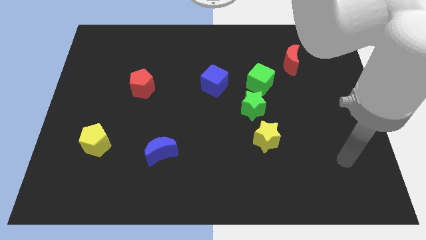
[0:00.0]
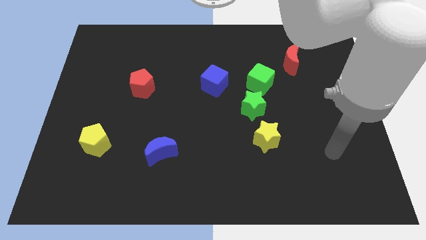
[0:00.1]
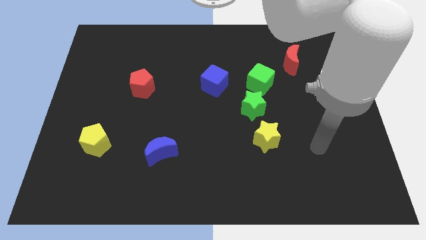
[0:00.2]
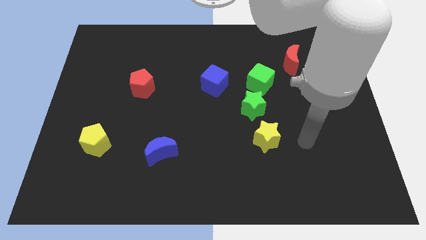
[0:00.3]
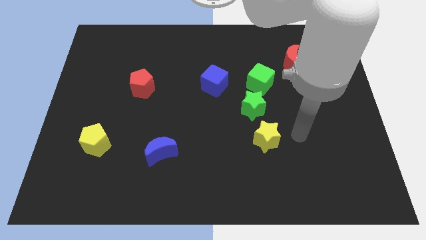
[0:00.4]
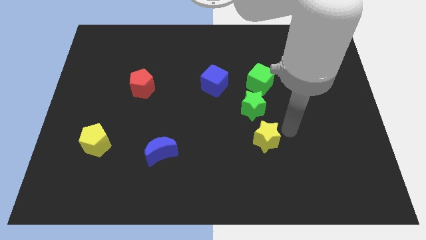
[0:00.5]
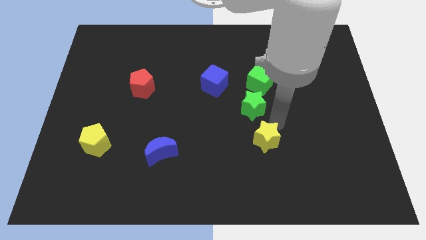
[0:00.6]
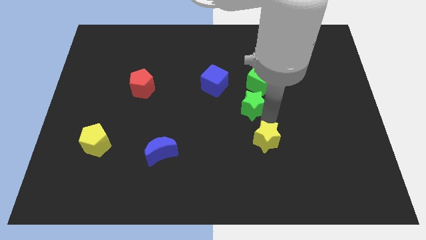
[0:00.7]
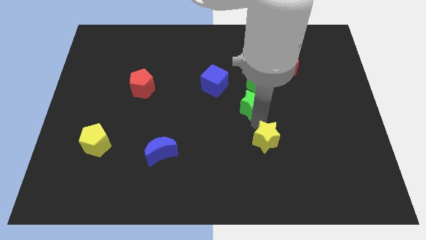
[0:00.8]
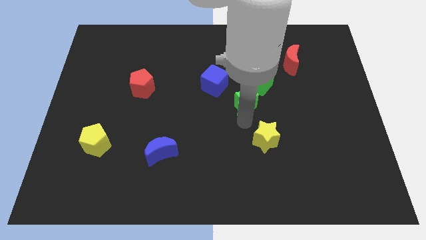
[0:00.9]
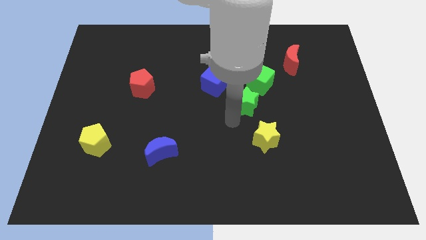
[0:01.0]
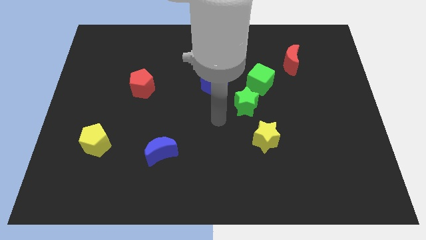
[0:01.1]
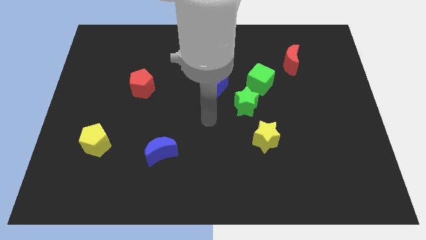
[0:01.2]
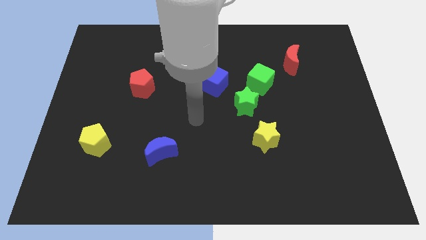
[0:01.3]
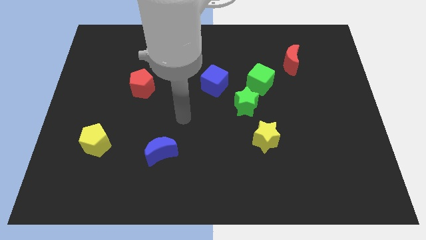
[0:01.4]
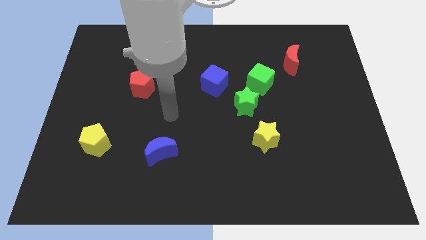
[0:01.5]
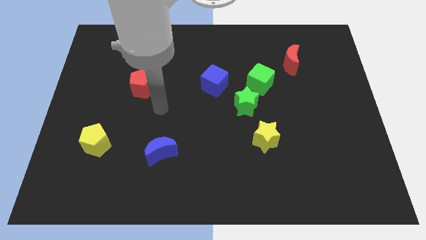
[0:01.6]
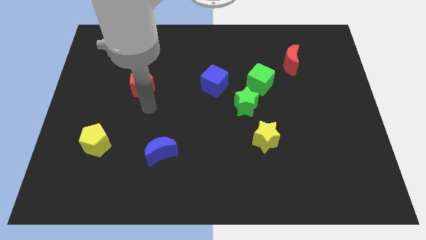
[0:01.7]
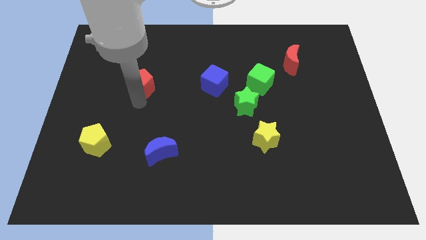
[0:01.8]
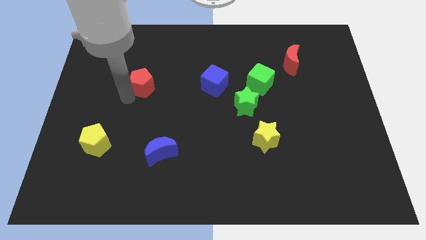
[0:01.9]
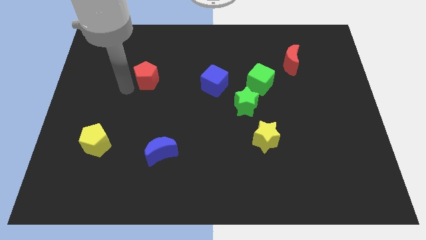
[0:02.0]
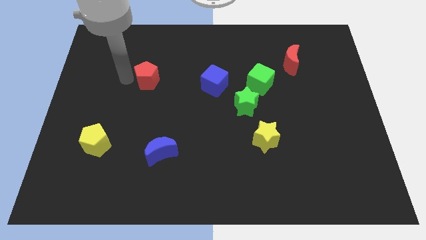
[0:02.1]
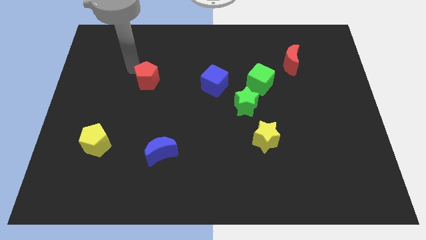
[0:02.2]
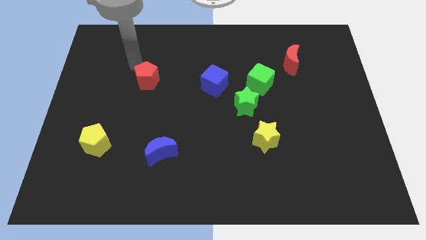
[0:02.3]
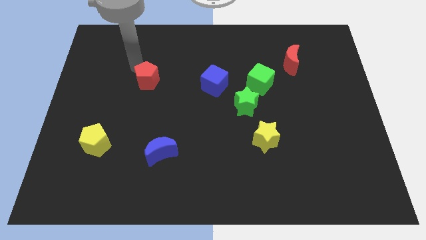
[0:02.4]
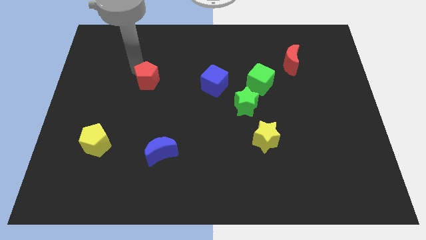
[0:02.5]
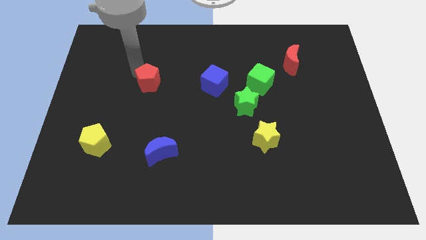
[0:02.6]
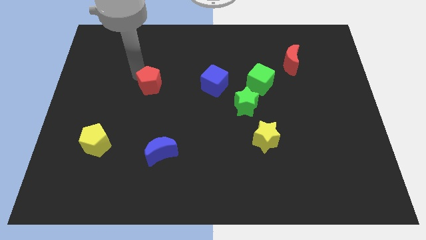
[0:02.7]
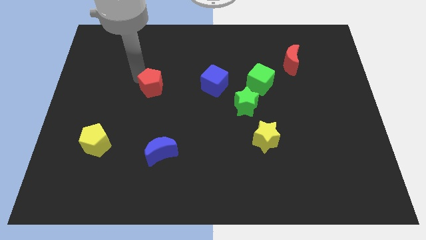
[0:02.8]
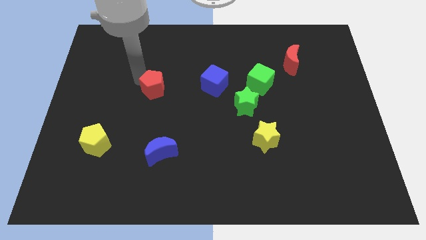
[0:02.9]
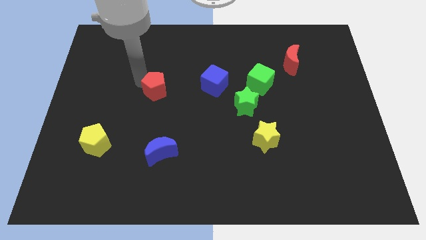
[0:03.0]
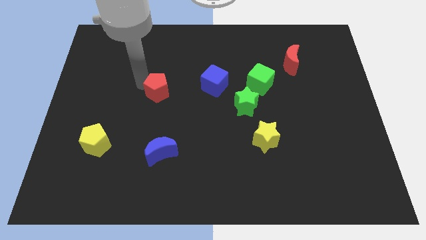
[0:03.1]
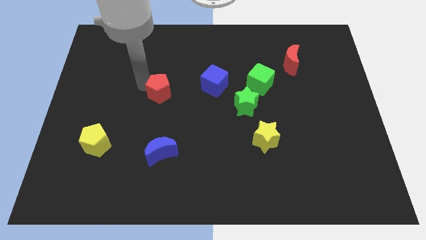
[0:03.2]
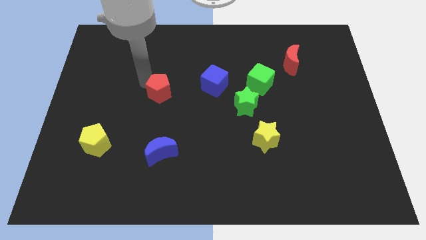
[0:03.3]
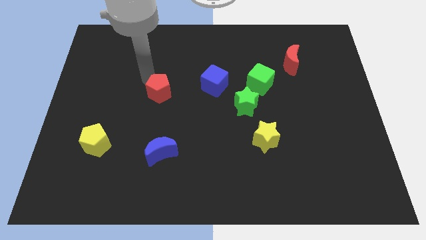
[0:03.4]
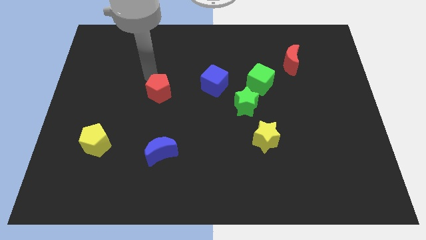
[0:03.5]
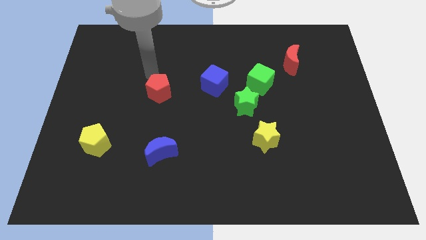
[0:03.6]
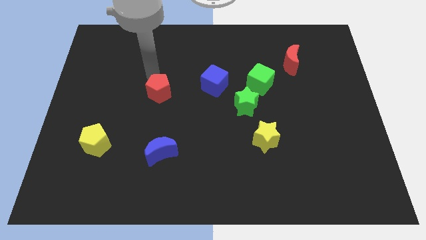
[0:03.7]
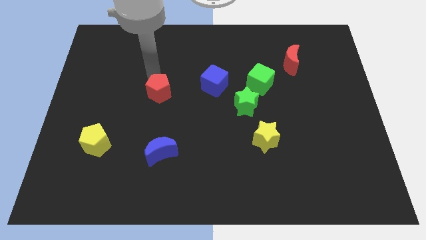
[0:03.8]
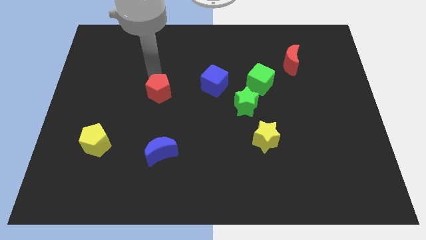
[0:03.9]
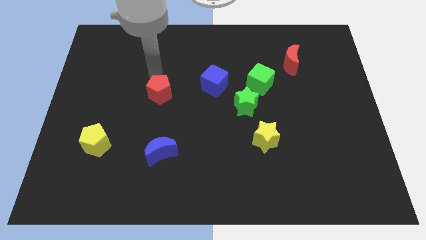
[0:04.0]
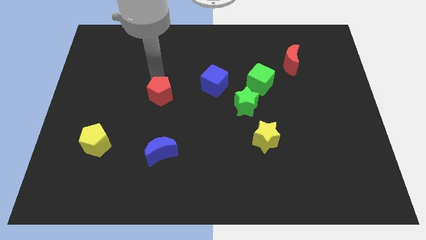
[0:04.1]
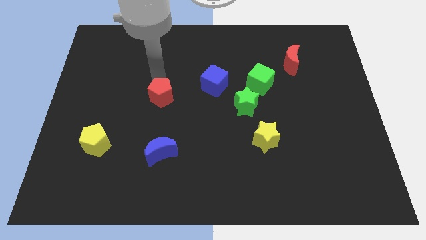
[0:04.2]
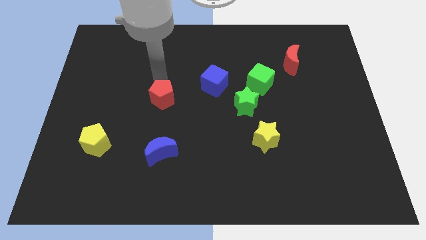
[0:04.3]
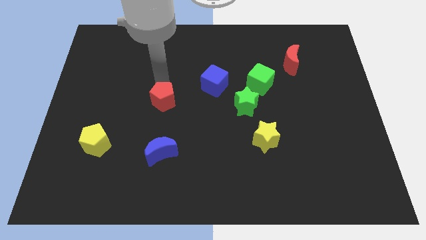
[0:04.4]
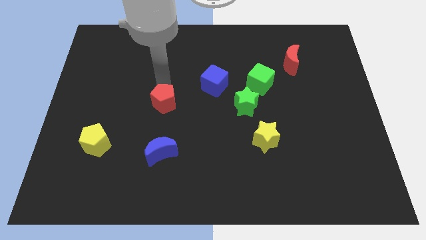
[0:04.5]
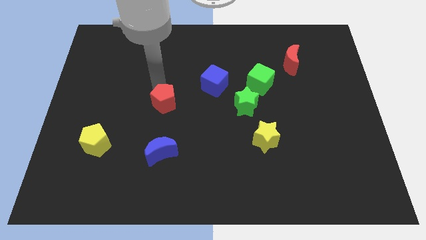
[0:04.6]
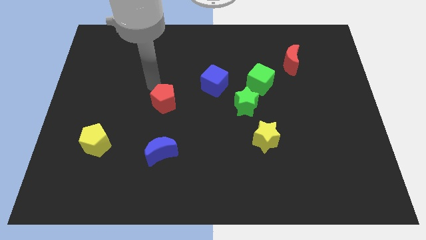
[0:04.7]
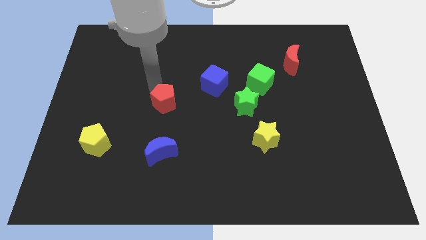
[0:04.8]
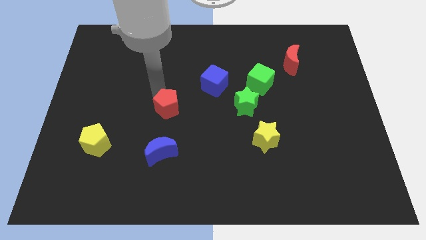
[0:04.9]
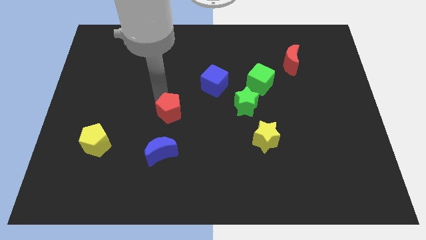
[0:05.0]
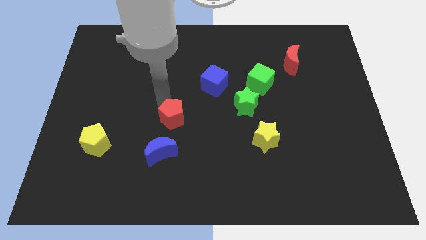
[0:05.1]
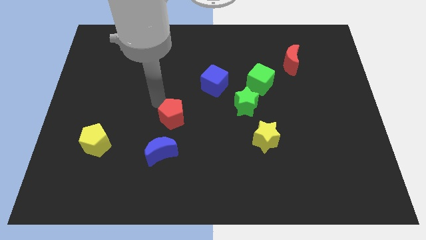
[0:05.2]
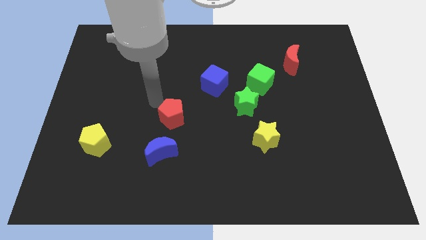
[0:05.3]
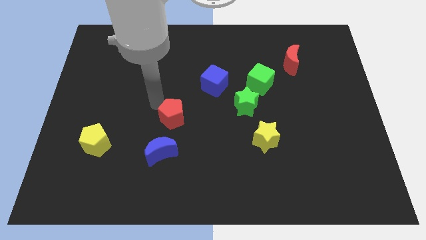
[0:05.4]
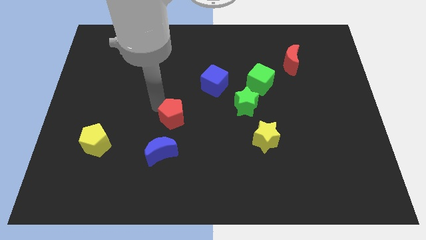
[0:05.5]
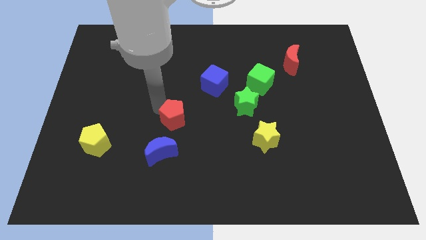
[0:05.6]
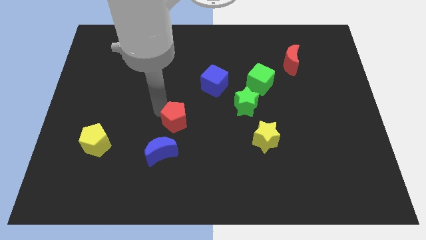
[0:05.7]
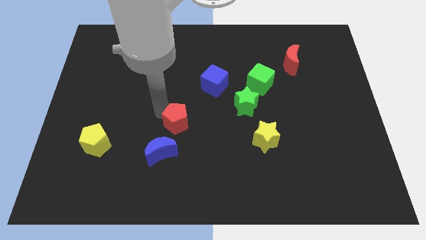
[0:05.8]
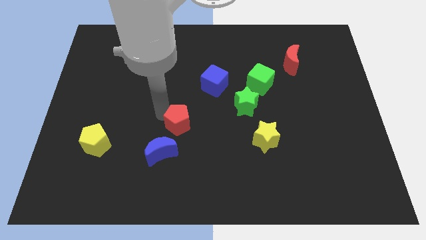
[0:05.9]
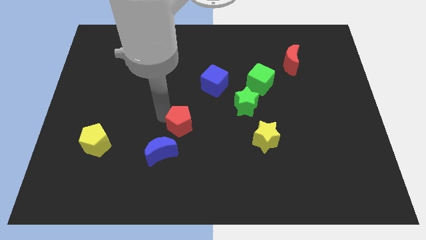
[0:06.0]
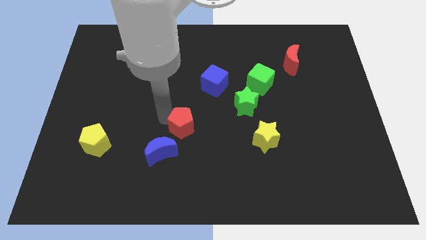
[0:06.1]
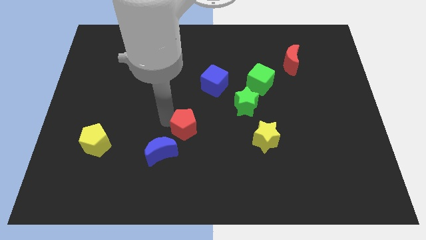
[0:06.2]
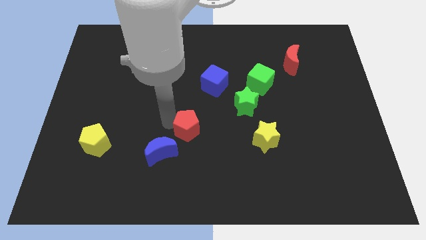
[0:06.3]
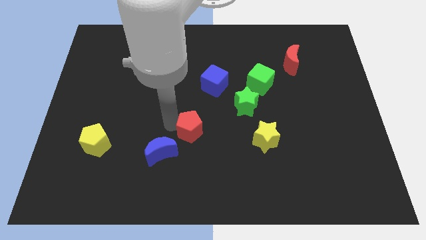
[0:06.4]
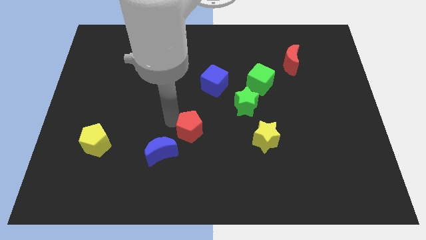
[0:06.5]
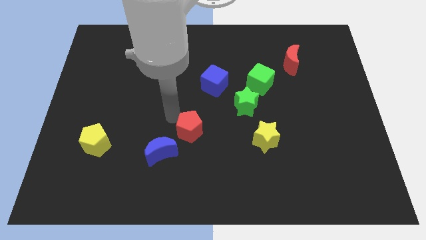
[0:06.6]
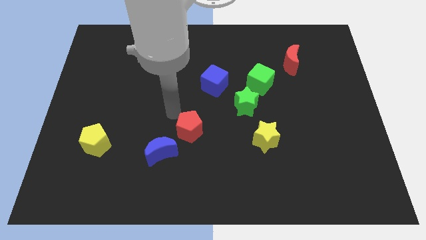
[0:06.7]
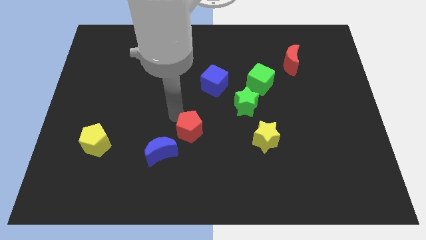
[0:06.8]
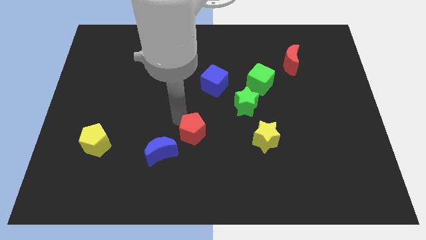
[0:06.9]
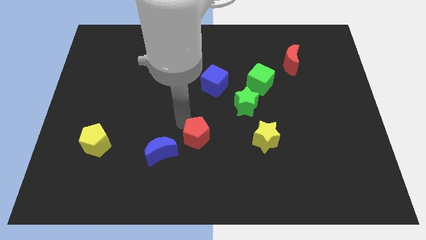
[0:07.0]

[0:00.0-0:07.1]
slide the red pentagon downwards and right

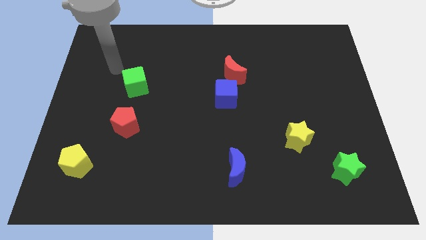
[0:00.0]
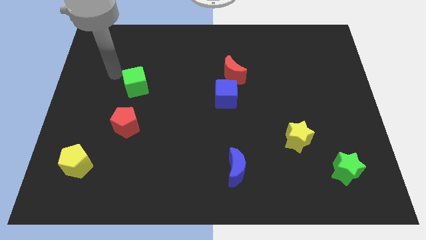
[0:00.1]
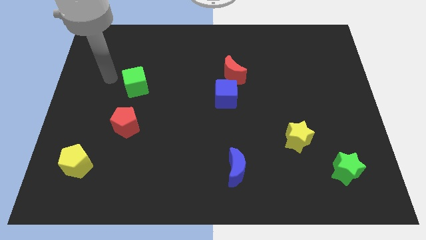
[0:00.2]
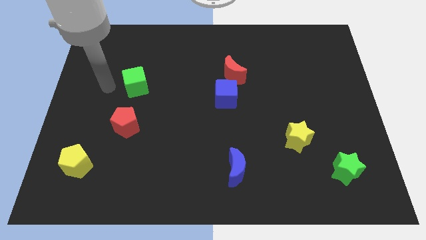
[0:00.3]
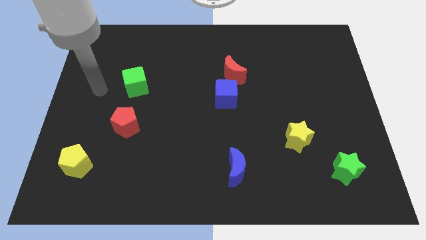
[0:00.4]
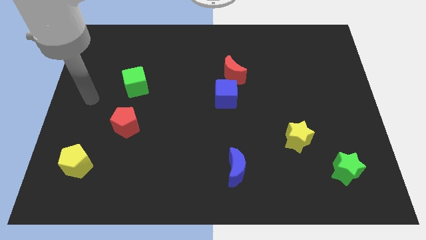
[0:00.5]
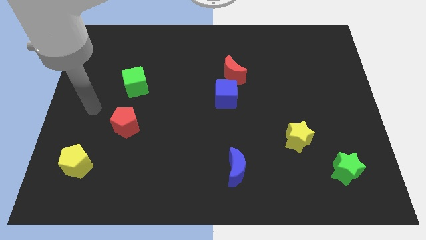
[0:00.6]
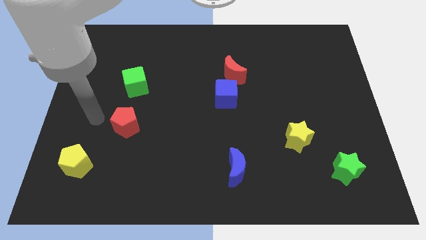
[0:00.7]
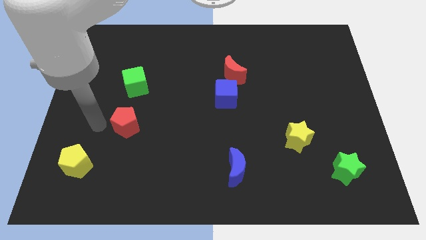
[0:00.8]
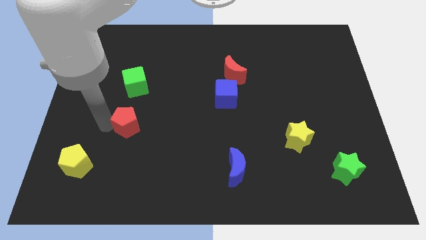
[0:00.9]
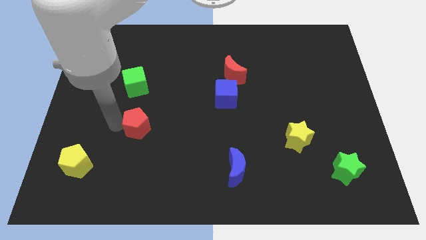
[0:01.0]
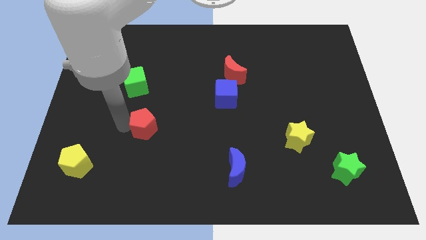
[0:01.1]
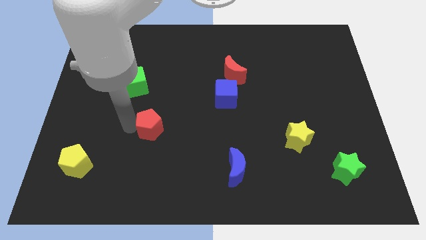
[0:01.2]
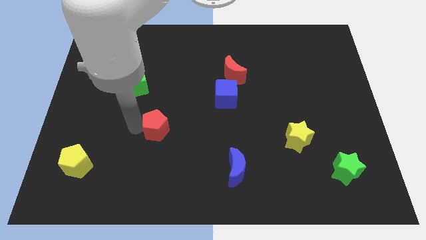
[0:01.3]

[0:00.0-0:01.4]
slightly slide the red pentagon to the right
